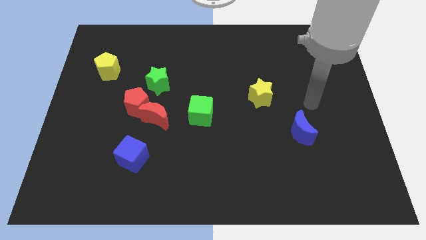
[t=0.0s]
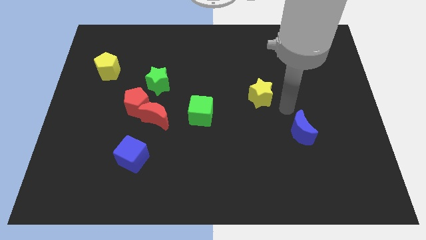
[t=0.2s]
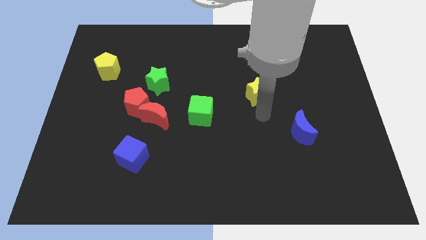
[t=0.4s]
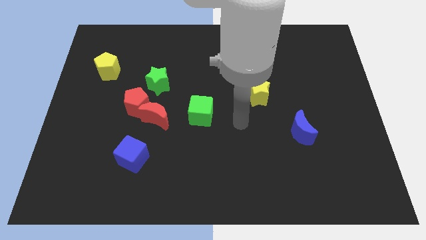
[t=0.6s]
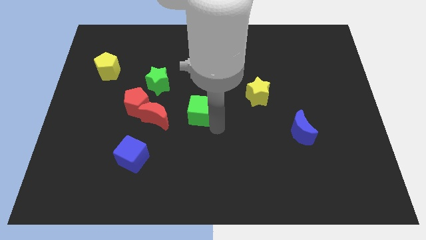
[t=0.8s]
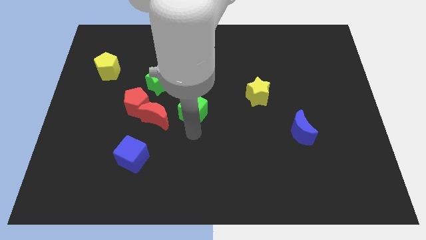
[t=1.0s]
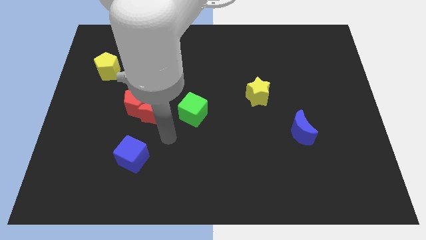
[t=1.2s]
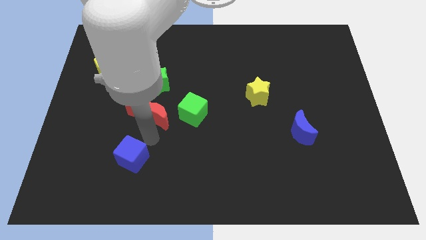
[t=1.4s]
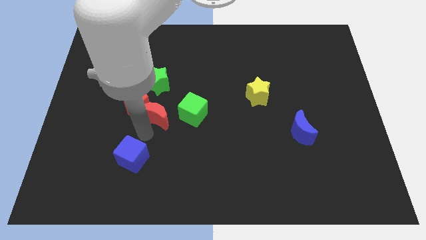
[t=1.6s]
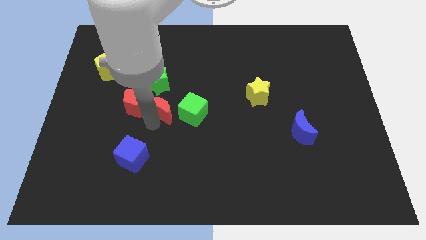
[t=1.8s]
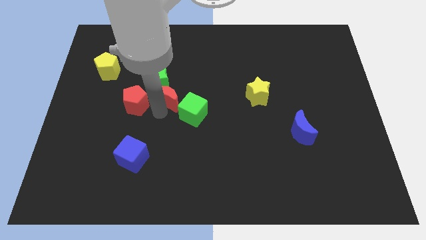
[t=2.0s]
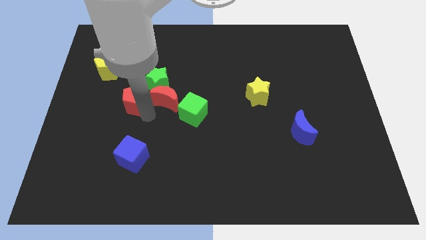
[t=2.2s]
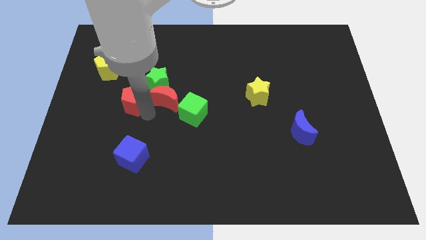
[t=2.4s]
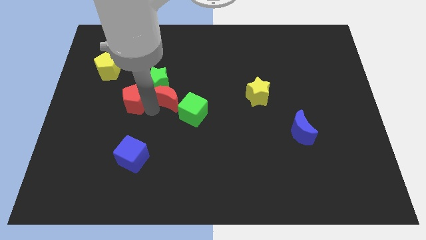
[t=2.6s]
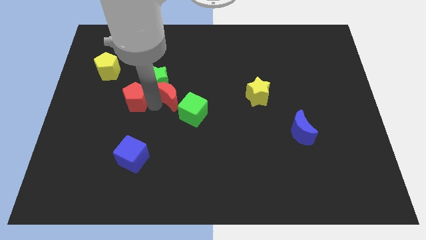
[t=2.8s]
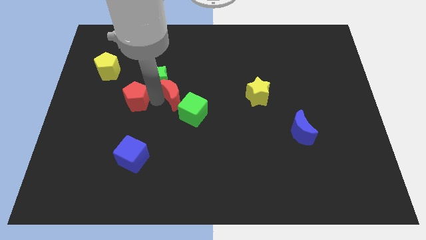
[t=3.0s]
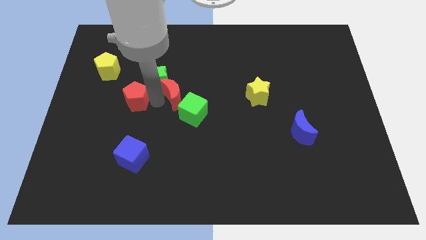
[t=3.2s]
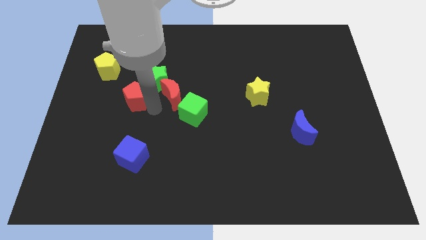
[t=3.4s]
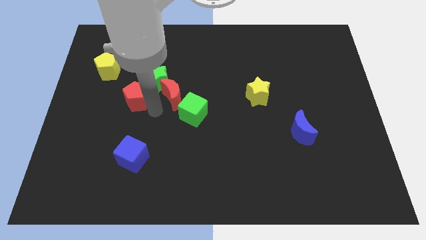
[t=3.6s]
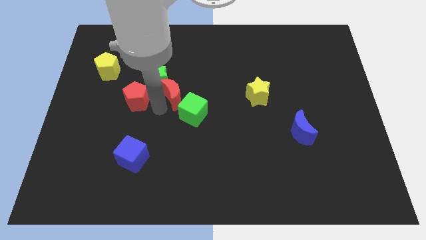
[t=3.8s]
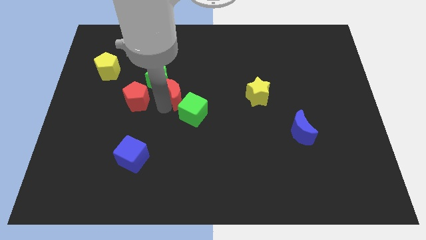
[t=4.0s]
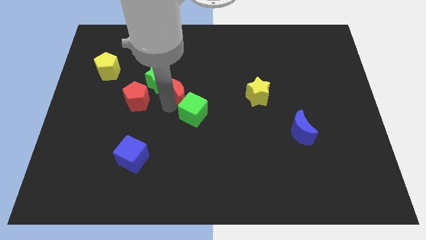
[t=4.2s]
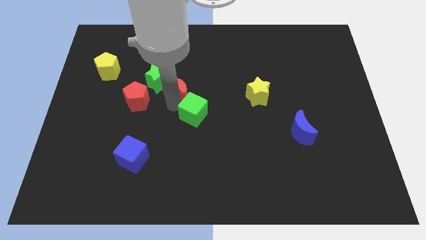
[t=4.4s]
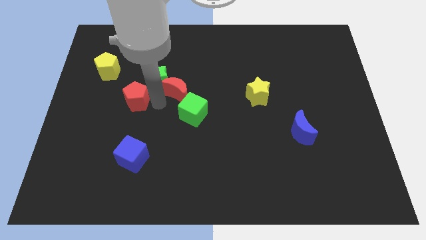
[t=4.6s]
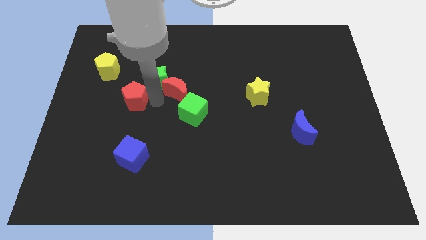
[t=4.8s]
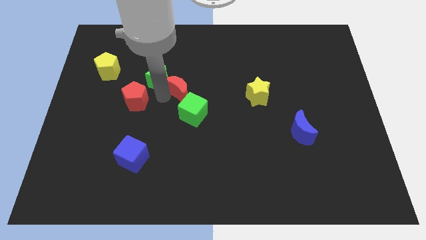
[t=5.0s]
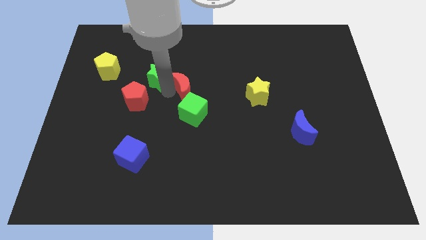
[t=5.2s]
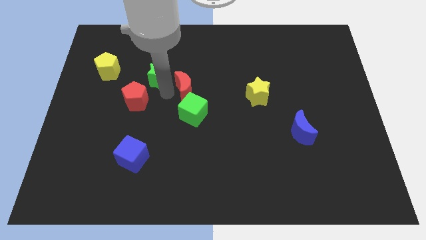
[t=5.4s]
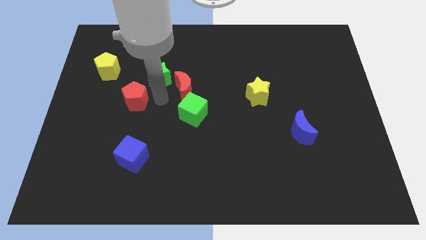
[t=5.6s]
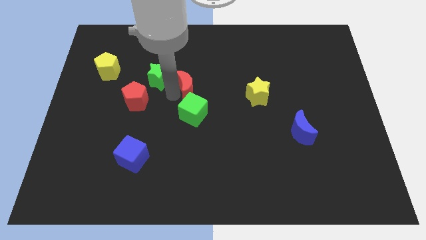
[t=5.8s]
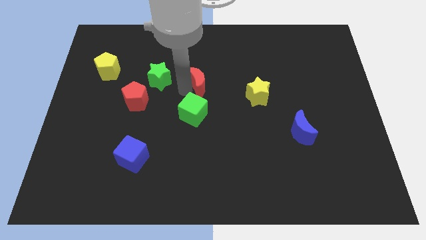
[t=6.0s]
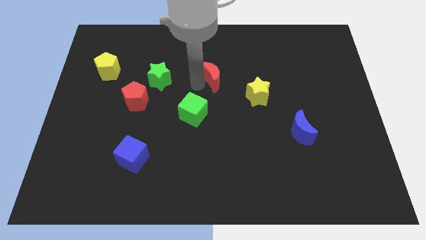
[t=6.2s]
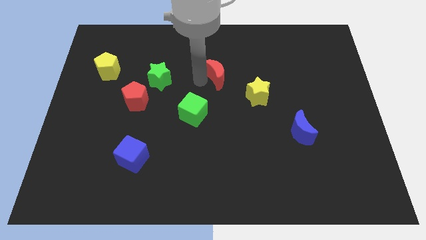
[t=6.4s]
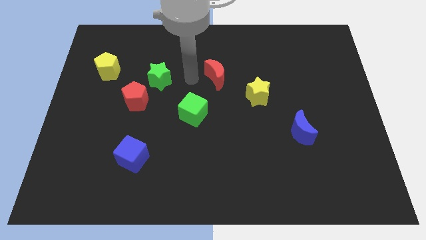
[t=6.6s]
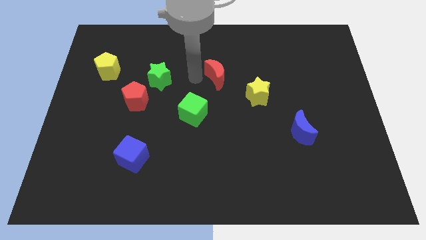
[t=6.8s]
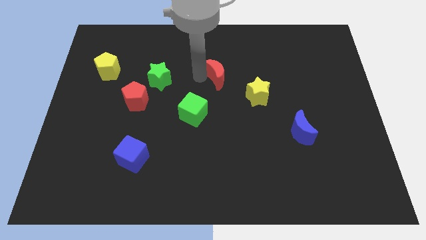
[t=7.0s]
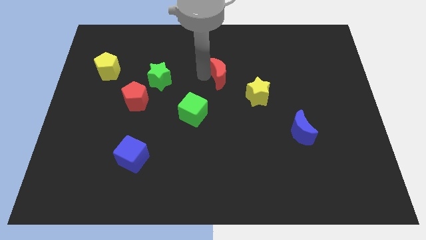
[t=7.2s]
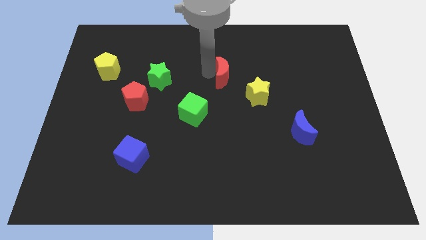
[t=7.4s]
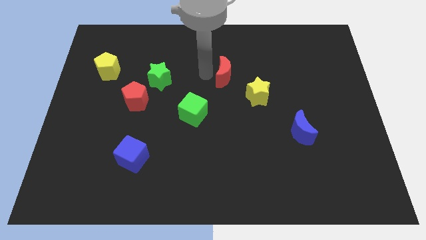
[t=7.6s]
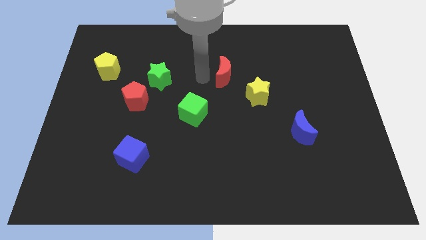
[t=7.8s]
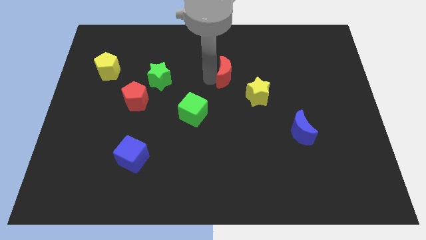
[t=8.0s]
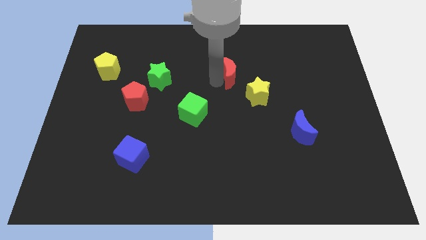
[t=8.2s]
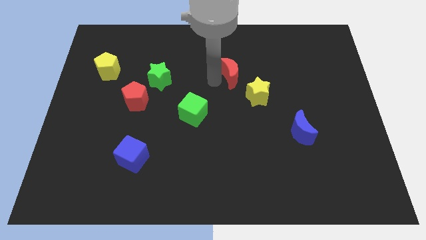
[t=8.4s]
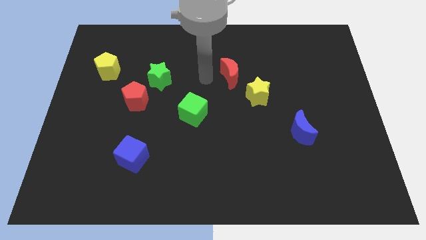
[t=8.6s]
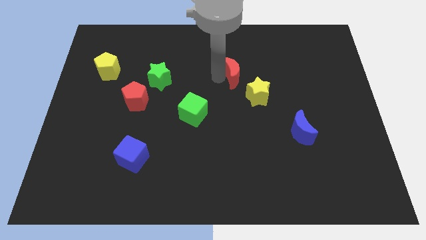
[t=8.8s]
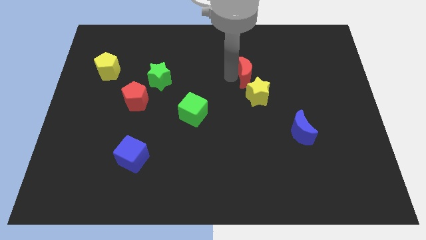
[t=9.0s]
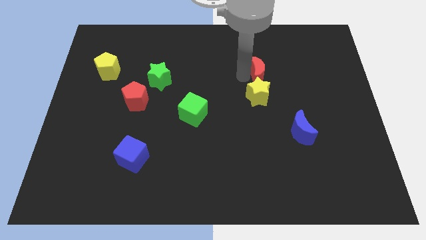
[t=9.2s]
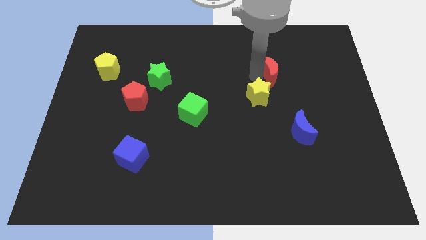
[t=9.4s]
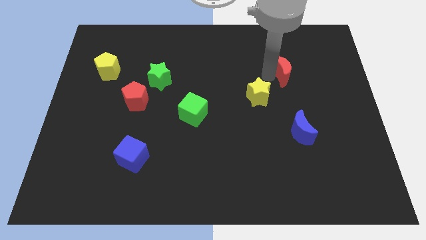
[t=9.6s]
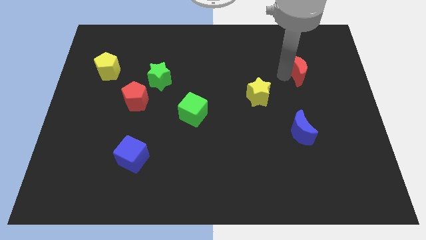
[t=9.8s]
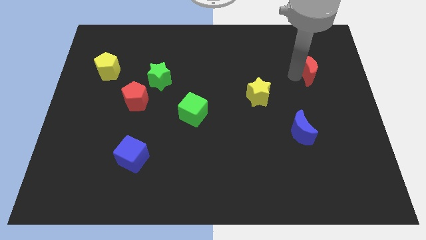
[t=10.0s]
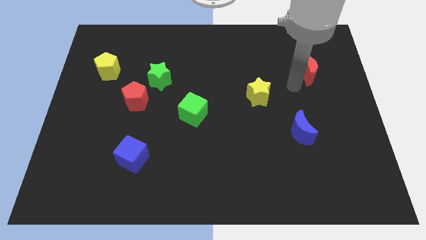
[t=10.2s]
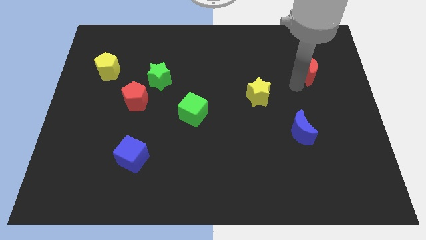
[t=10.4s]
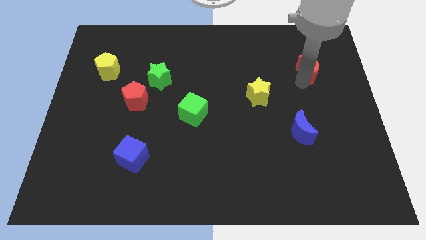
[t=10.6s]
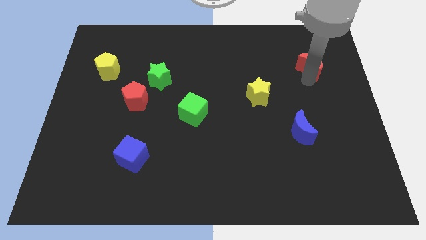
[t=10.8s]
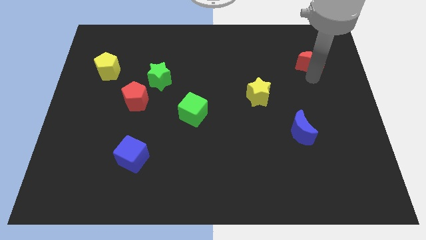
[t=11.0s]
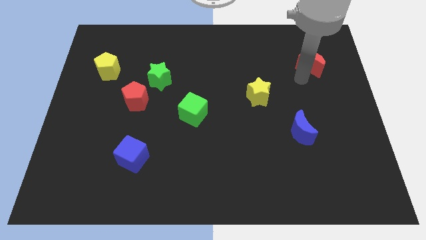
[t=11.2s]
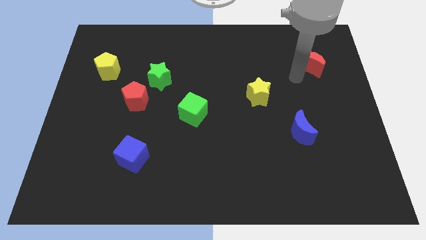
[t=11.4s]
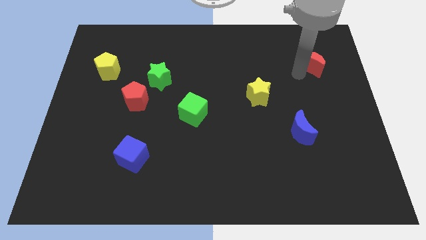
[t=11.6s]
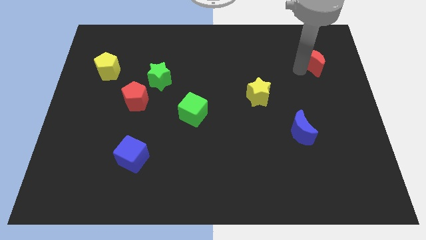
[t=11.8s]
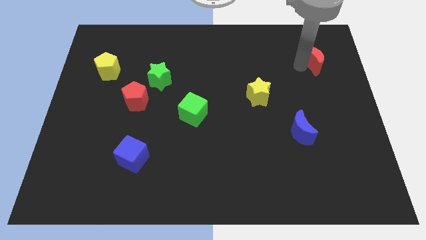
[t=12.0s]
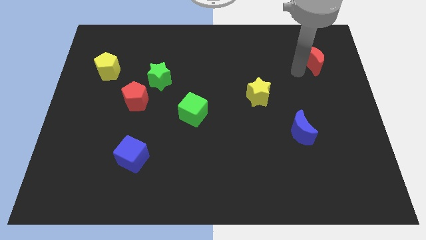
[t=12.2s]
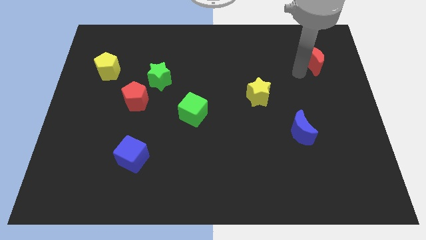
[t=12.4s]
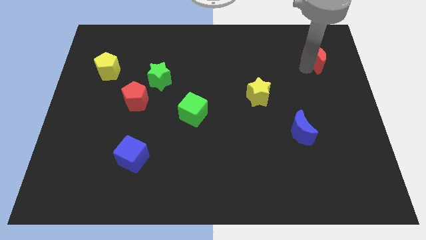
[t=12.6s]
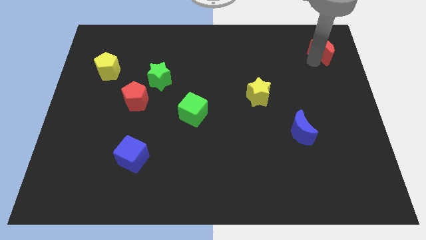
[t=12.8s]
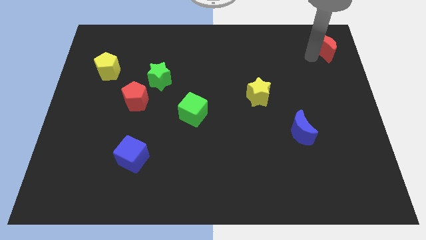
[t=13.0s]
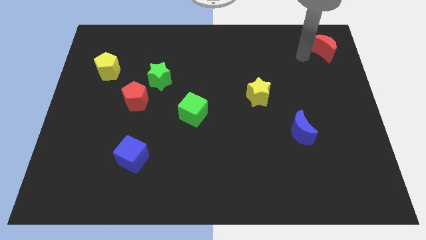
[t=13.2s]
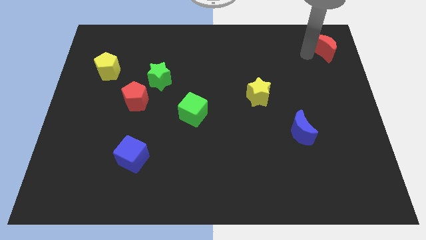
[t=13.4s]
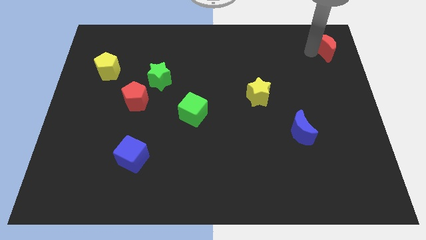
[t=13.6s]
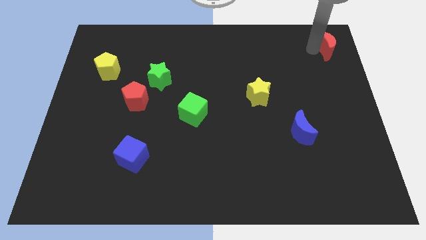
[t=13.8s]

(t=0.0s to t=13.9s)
push the red moon to the top right
